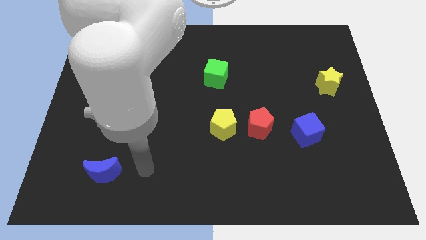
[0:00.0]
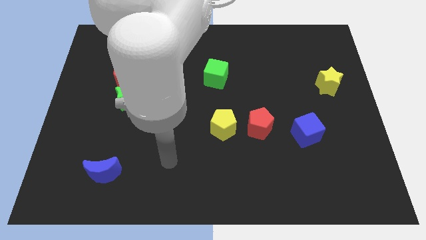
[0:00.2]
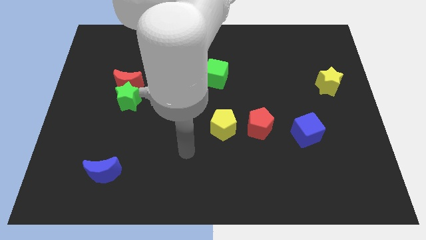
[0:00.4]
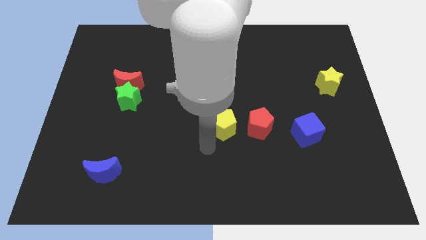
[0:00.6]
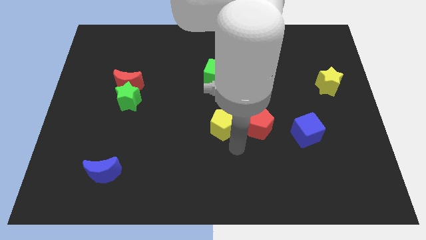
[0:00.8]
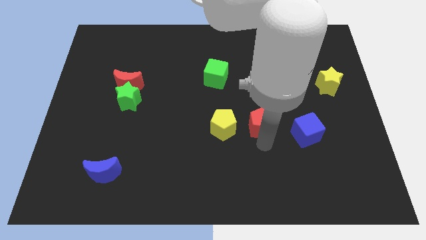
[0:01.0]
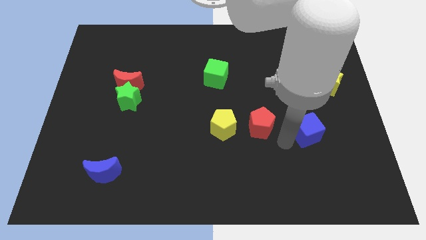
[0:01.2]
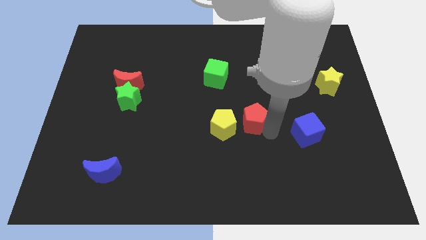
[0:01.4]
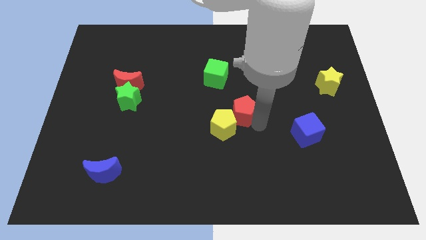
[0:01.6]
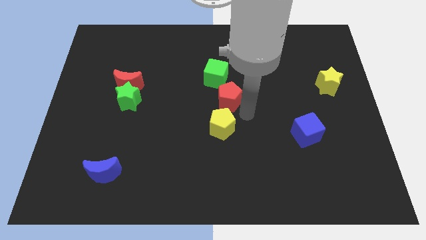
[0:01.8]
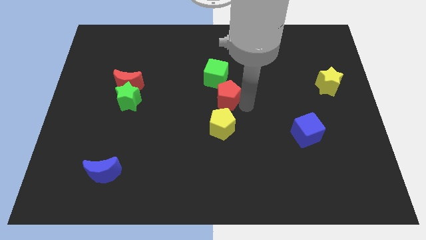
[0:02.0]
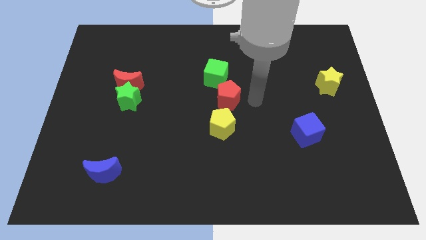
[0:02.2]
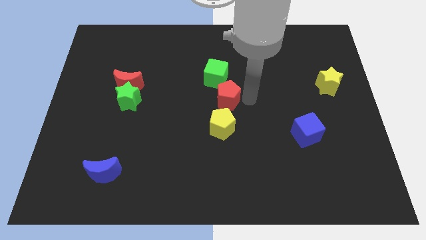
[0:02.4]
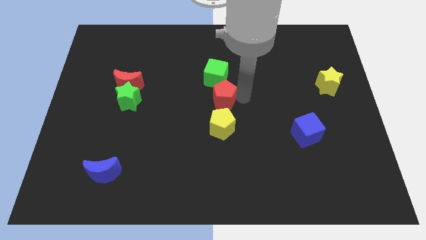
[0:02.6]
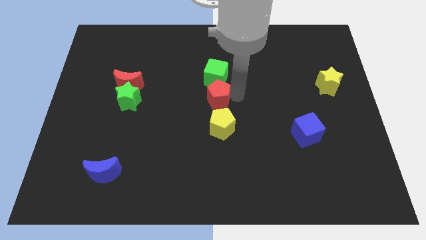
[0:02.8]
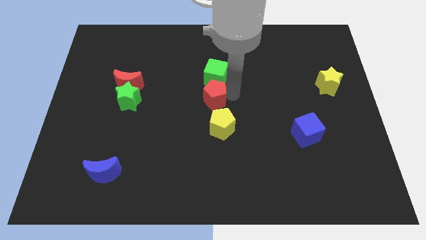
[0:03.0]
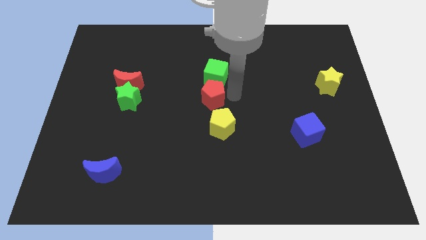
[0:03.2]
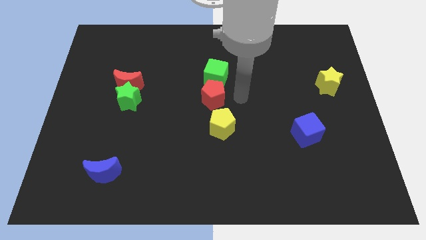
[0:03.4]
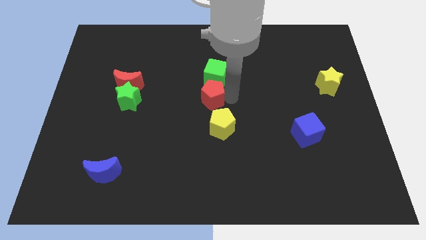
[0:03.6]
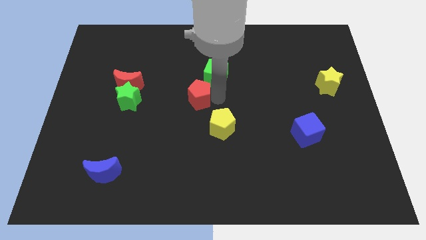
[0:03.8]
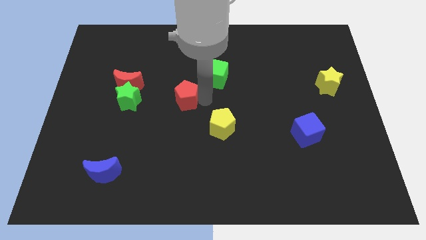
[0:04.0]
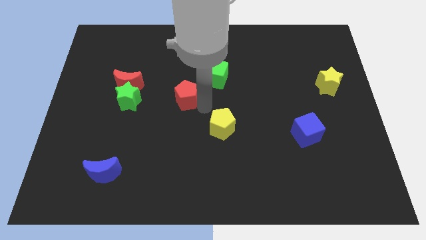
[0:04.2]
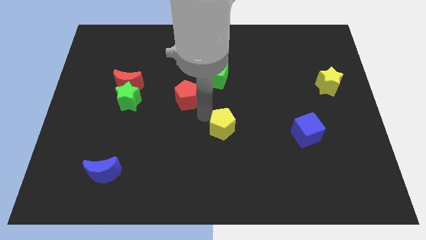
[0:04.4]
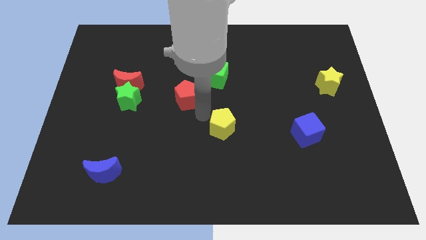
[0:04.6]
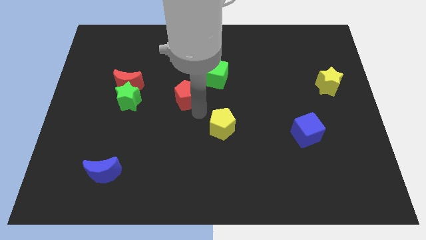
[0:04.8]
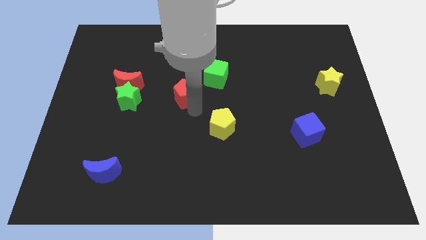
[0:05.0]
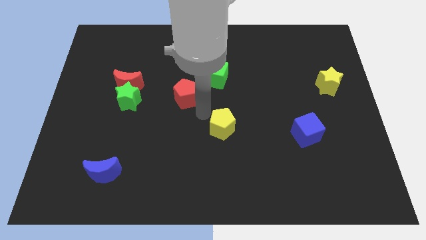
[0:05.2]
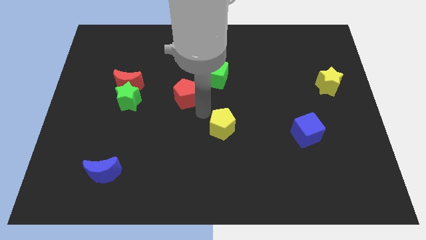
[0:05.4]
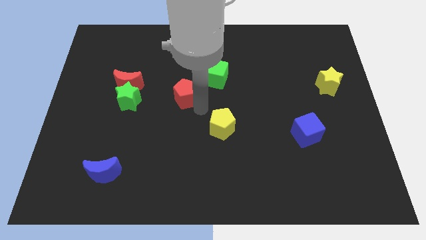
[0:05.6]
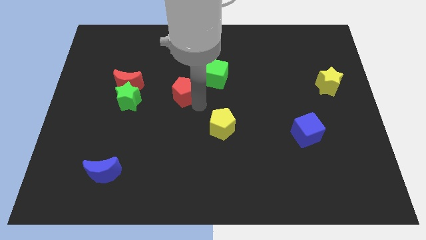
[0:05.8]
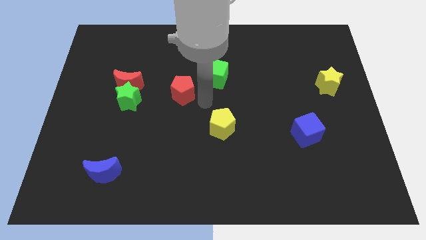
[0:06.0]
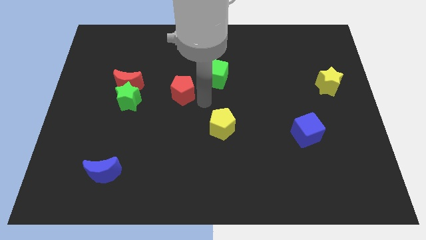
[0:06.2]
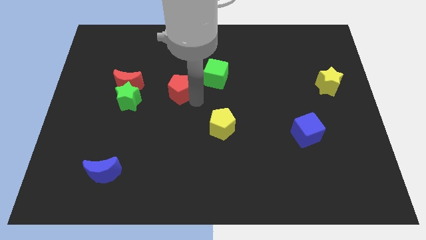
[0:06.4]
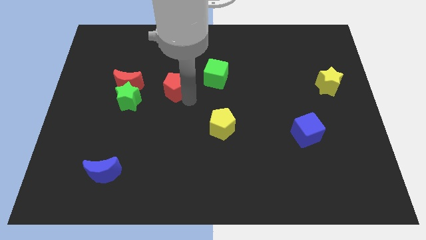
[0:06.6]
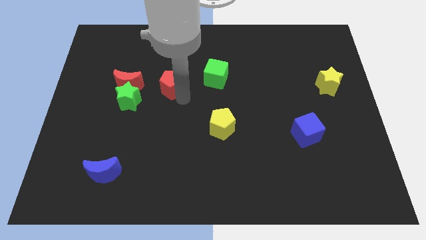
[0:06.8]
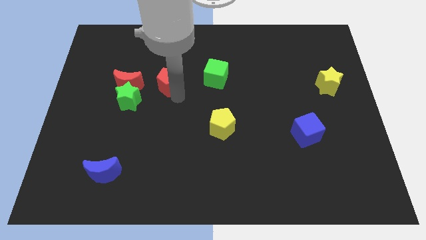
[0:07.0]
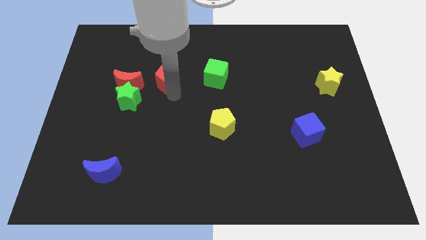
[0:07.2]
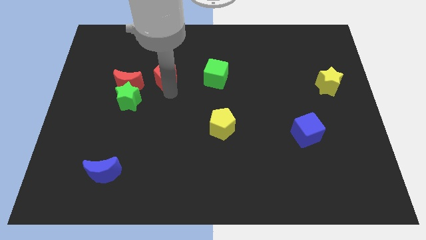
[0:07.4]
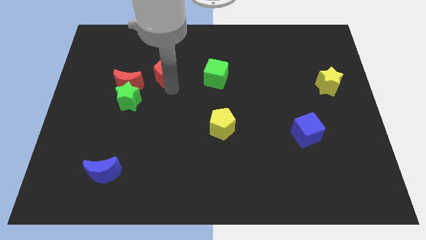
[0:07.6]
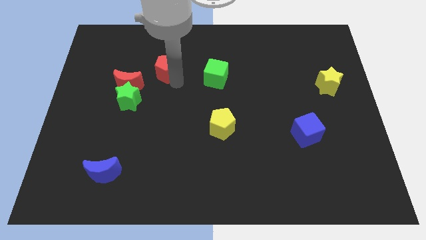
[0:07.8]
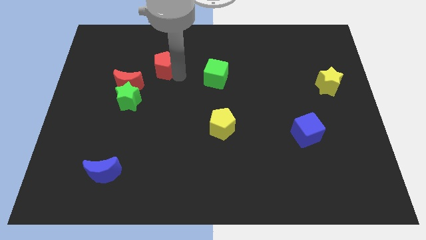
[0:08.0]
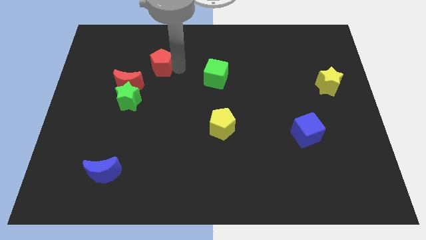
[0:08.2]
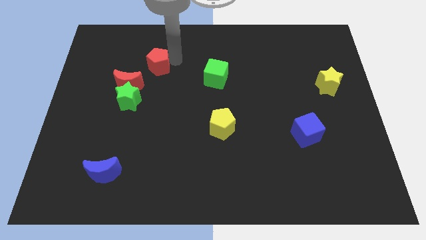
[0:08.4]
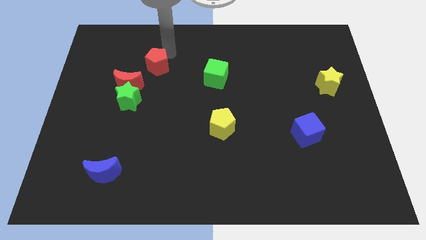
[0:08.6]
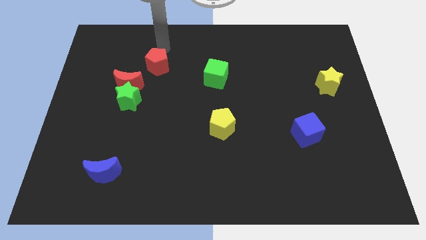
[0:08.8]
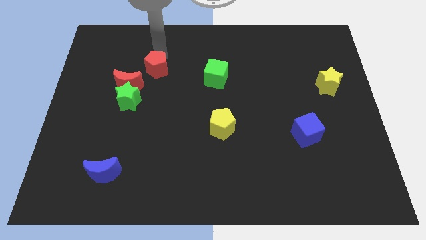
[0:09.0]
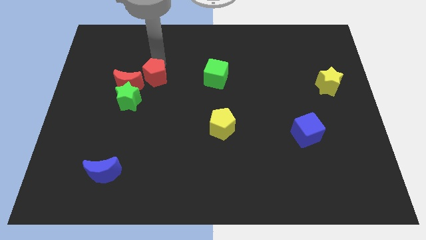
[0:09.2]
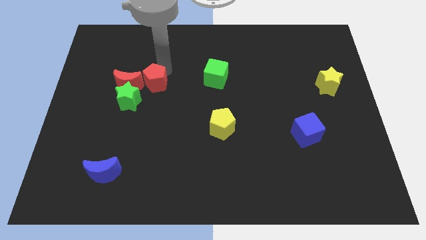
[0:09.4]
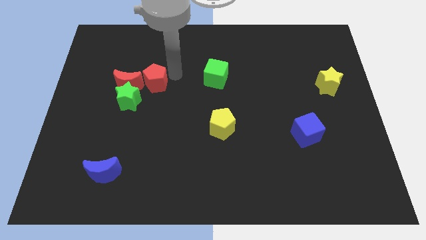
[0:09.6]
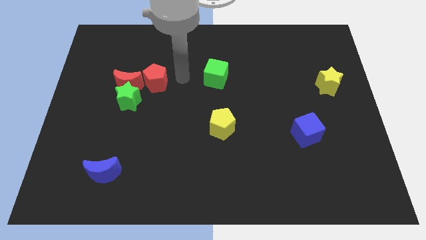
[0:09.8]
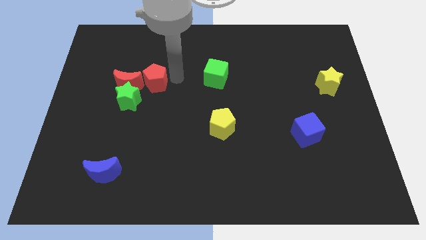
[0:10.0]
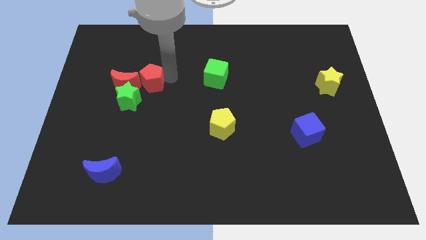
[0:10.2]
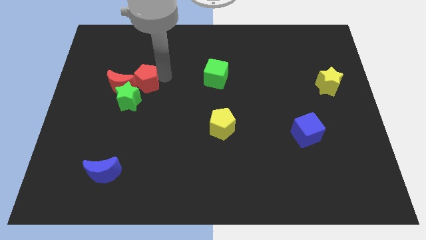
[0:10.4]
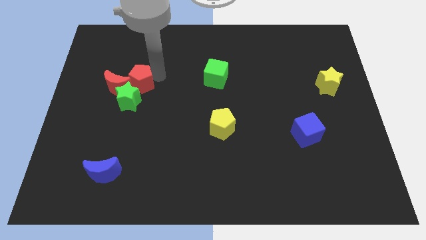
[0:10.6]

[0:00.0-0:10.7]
push the red pentagon next to the red moon

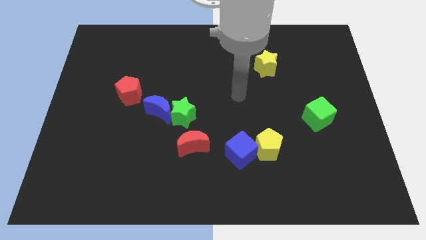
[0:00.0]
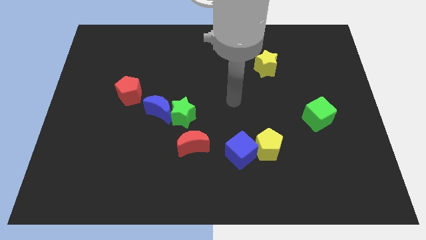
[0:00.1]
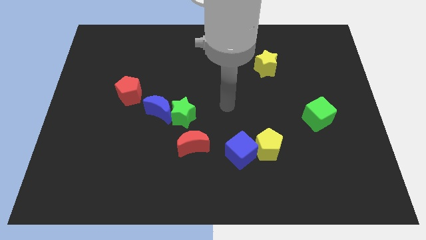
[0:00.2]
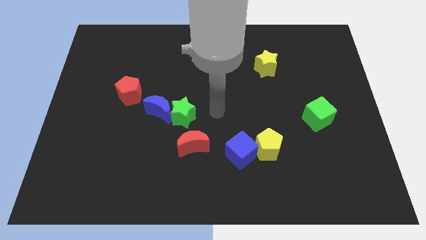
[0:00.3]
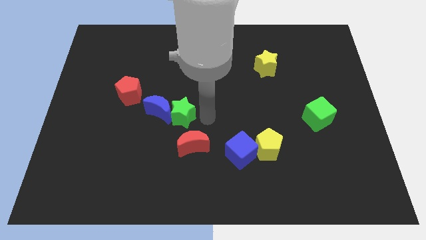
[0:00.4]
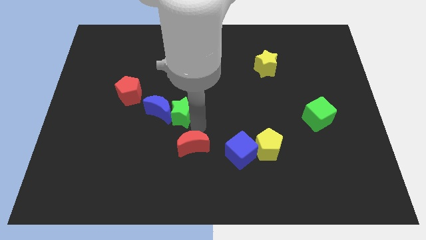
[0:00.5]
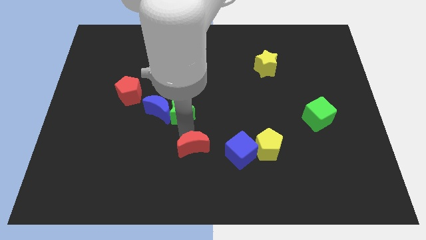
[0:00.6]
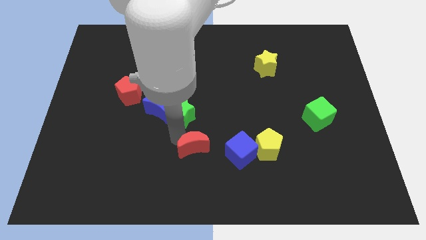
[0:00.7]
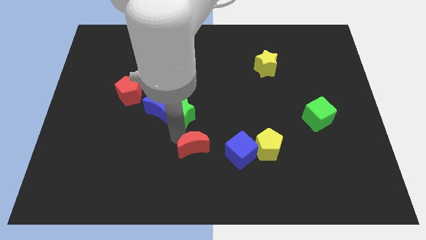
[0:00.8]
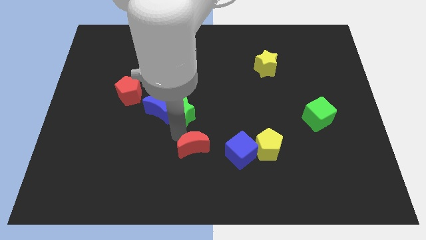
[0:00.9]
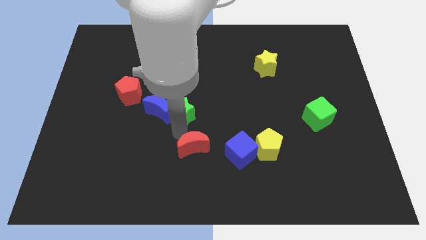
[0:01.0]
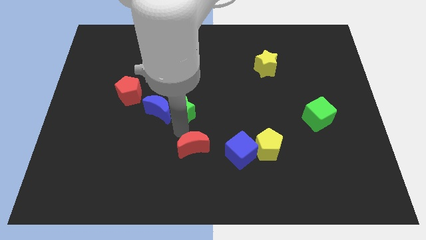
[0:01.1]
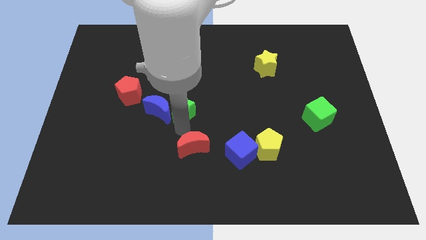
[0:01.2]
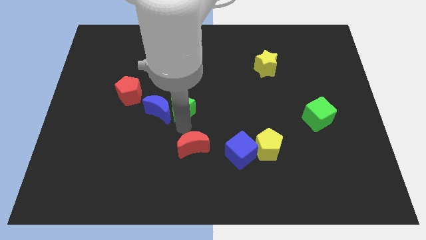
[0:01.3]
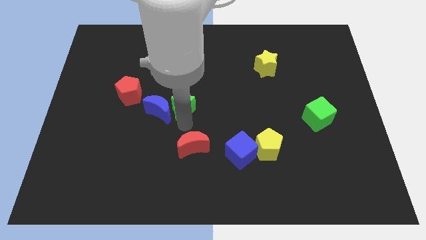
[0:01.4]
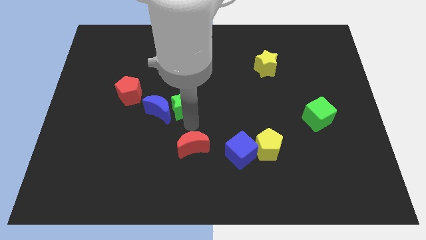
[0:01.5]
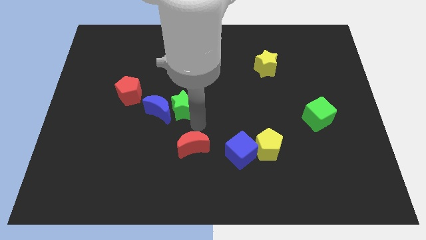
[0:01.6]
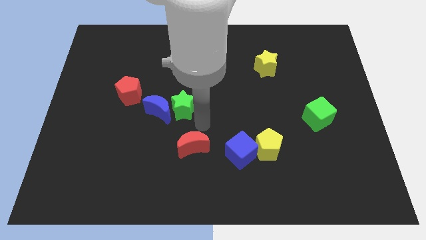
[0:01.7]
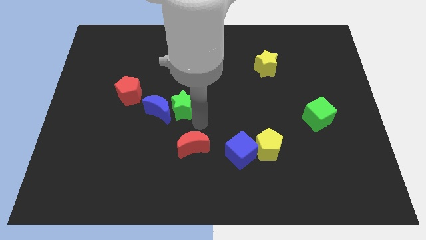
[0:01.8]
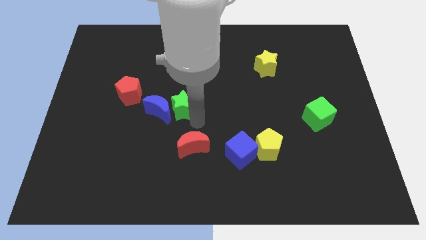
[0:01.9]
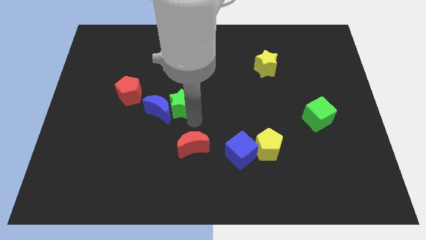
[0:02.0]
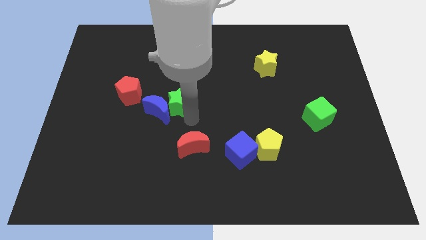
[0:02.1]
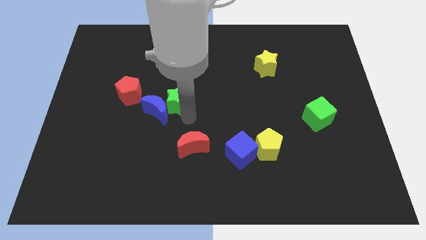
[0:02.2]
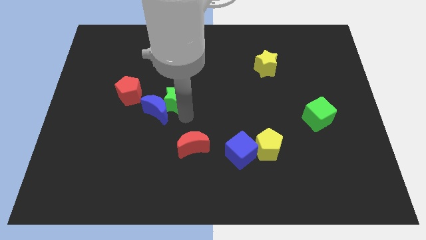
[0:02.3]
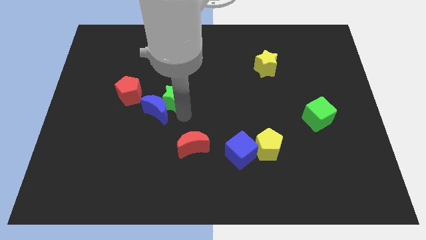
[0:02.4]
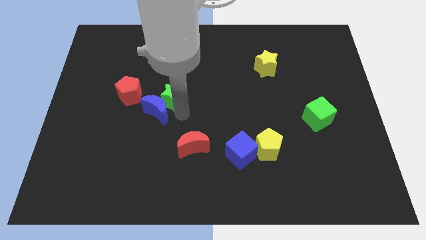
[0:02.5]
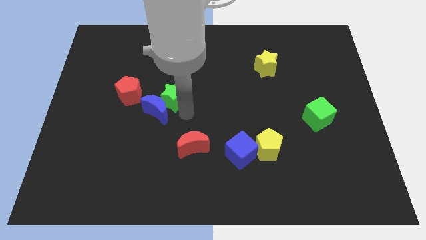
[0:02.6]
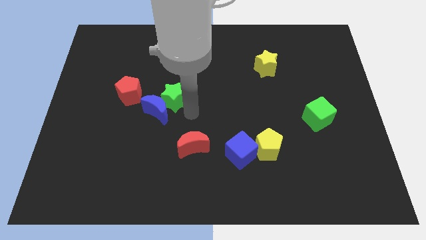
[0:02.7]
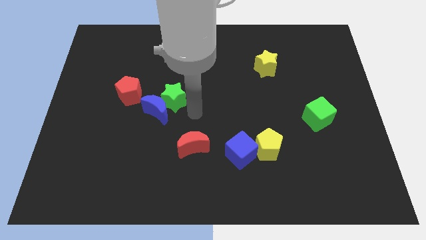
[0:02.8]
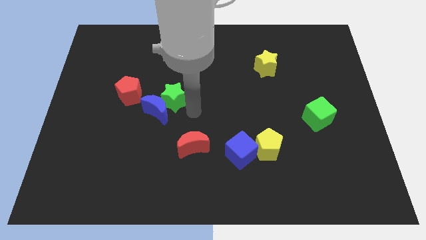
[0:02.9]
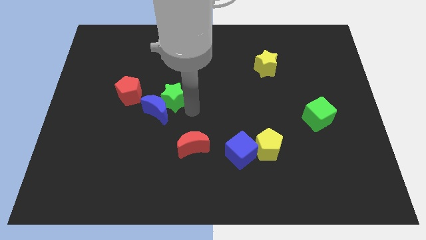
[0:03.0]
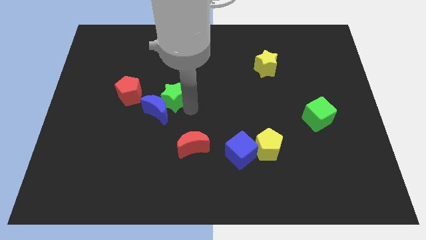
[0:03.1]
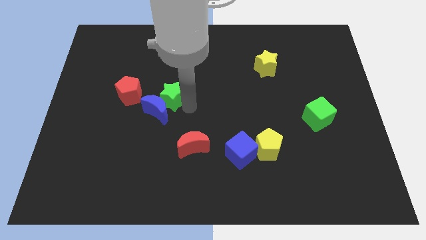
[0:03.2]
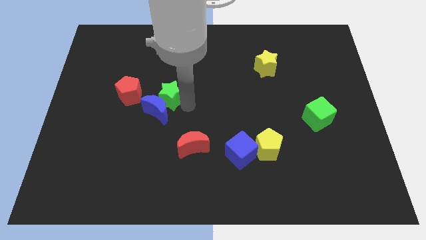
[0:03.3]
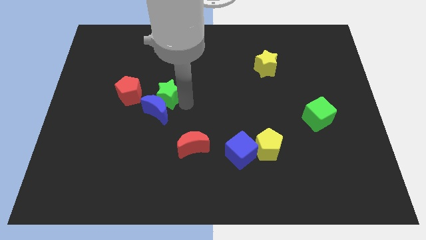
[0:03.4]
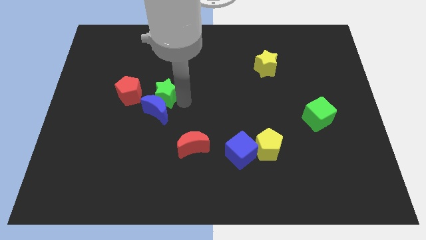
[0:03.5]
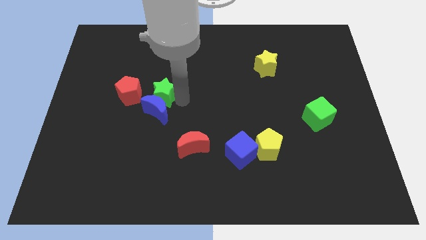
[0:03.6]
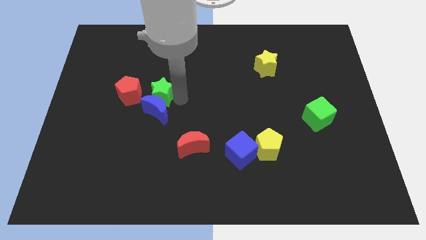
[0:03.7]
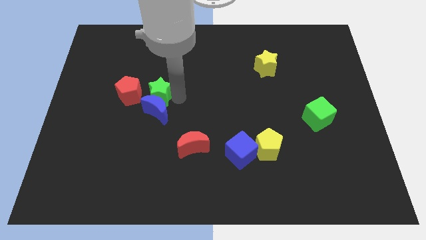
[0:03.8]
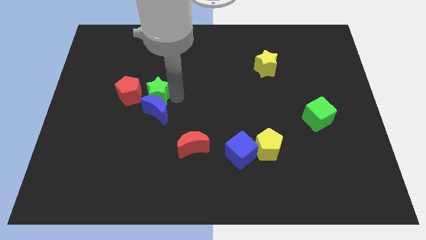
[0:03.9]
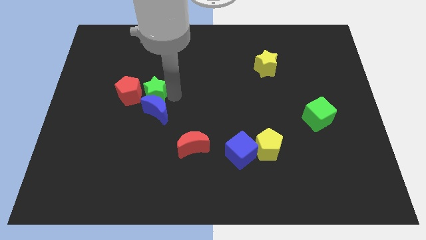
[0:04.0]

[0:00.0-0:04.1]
move the green star close to the red pentagon
